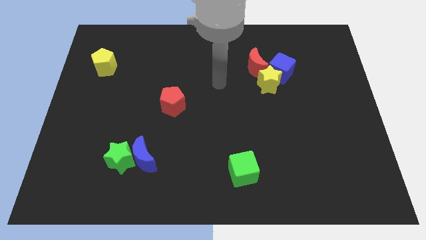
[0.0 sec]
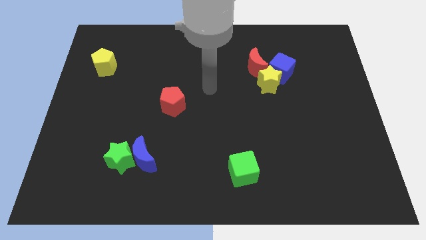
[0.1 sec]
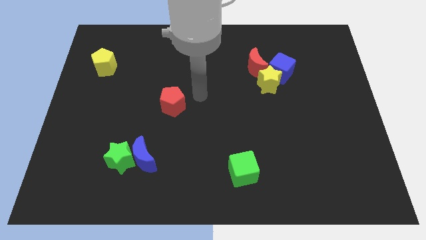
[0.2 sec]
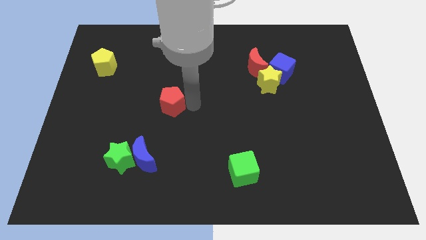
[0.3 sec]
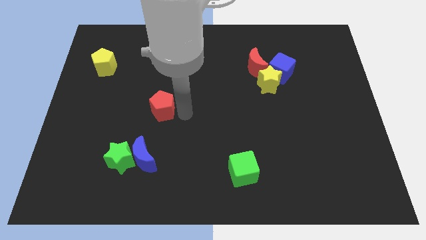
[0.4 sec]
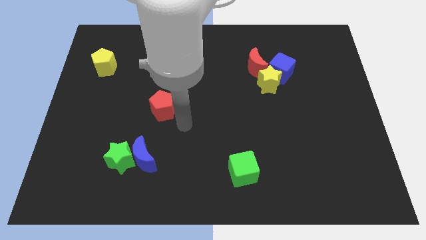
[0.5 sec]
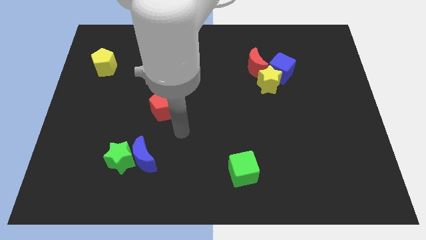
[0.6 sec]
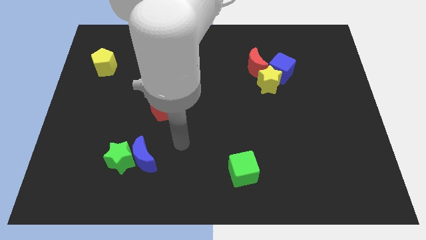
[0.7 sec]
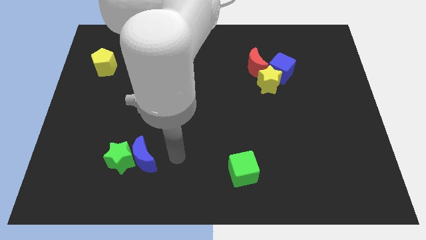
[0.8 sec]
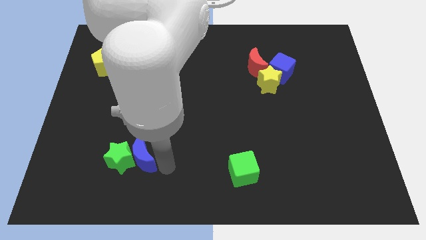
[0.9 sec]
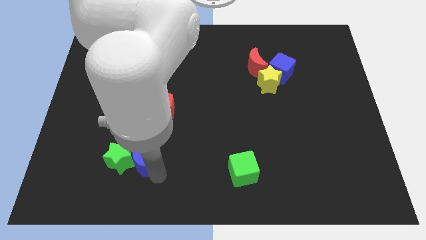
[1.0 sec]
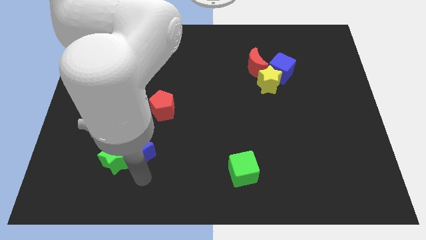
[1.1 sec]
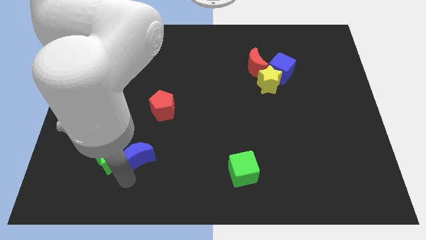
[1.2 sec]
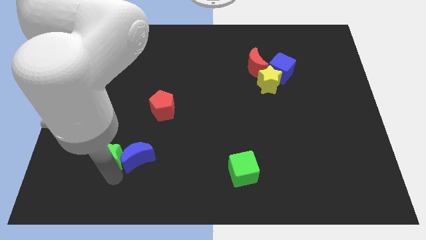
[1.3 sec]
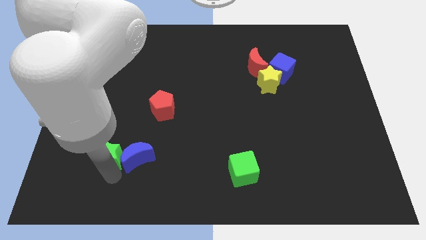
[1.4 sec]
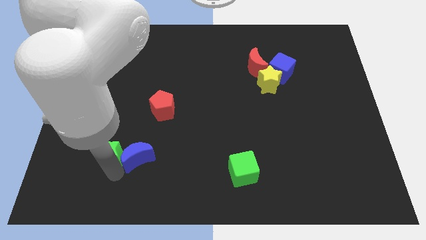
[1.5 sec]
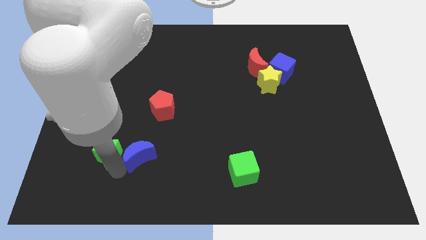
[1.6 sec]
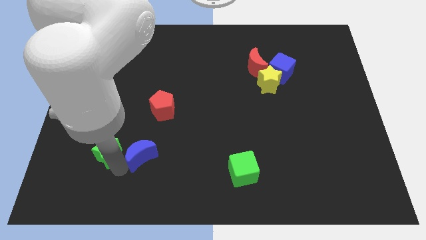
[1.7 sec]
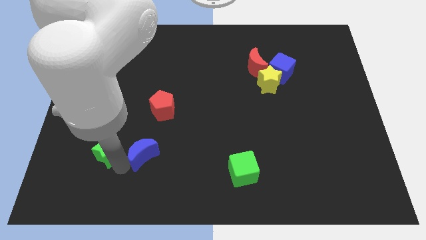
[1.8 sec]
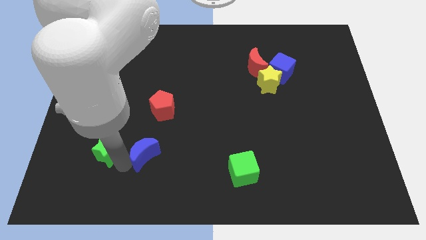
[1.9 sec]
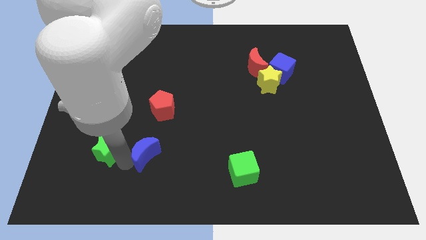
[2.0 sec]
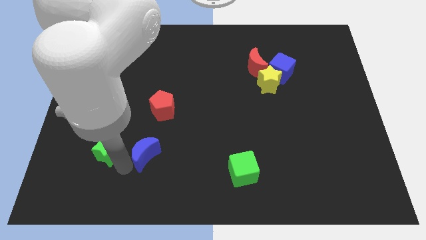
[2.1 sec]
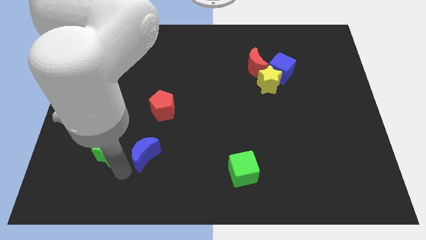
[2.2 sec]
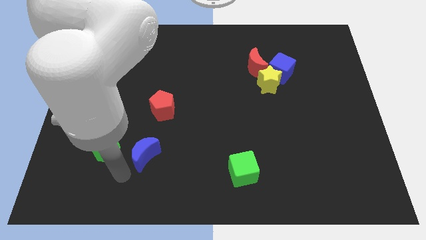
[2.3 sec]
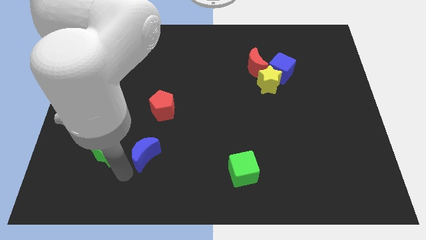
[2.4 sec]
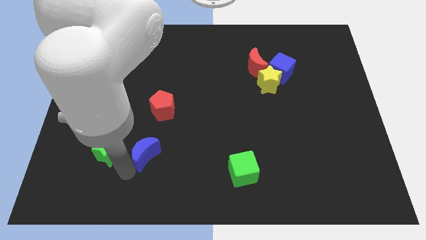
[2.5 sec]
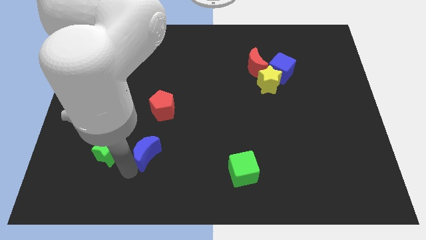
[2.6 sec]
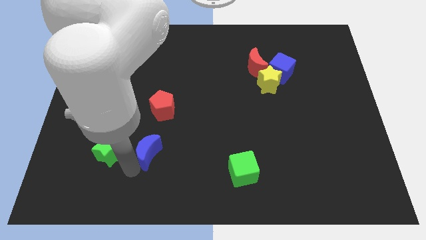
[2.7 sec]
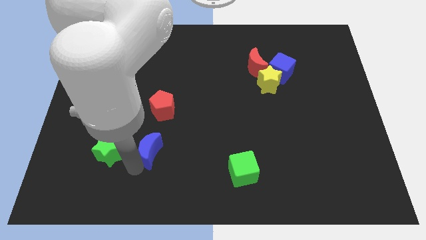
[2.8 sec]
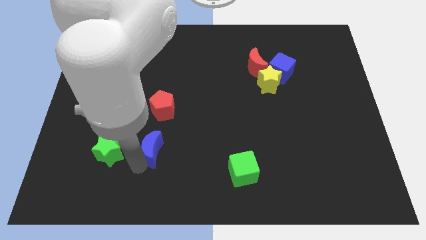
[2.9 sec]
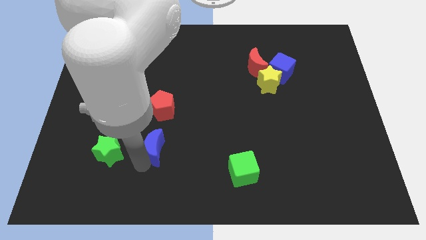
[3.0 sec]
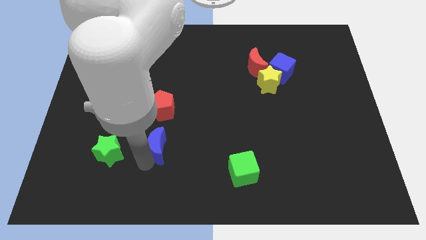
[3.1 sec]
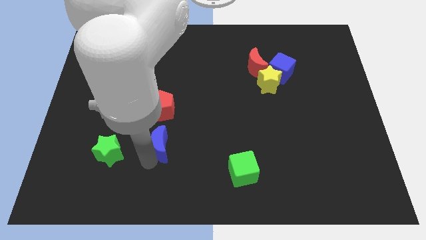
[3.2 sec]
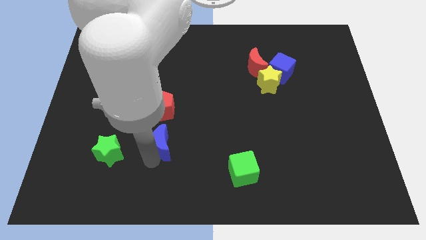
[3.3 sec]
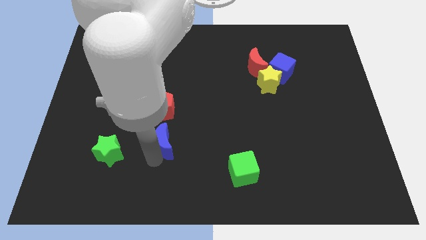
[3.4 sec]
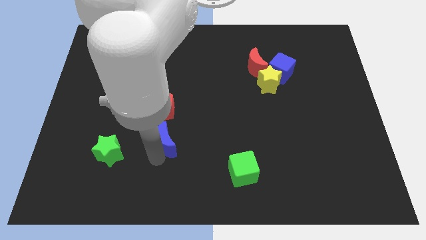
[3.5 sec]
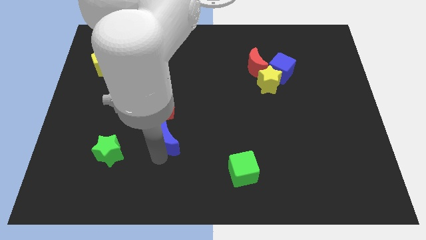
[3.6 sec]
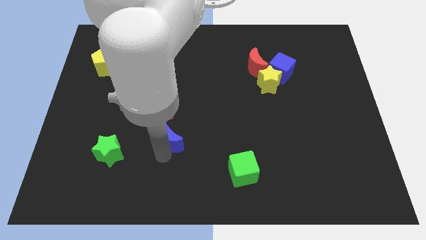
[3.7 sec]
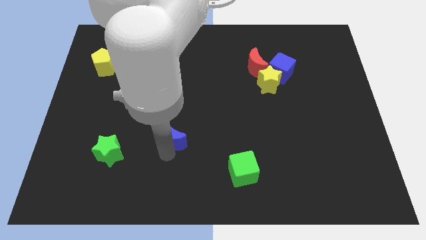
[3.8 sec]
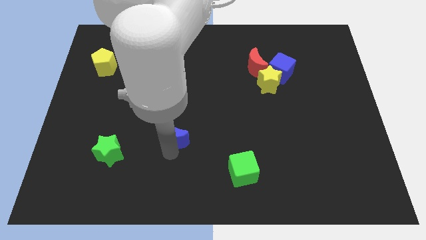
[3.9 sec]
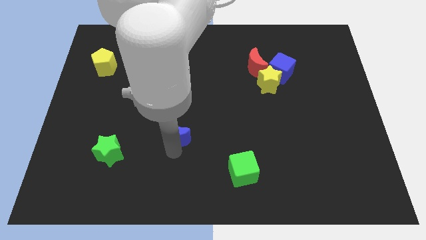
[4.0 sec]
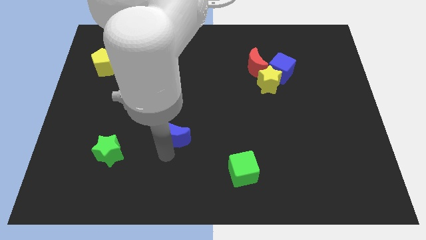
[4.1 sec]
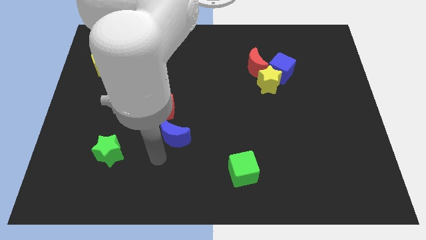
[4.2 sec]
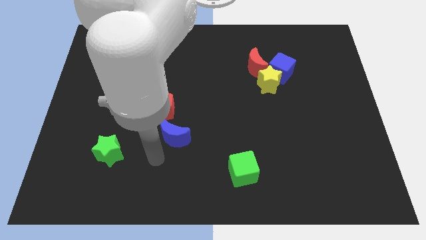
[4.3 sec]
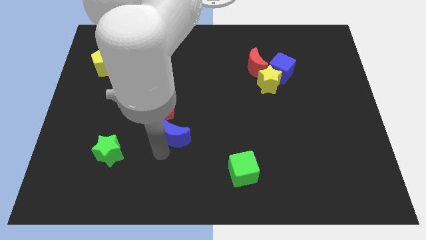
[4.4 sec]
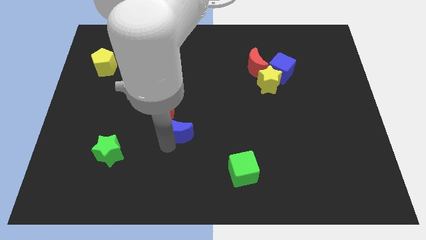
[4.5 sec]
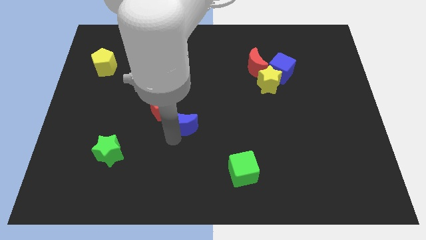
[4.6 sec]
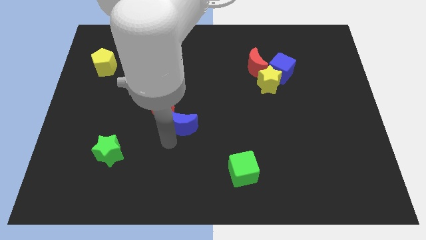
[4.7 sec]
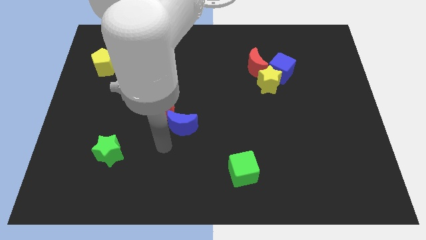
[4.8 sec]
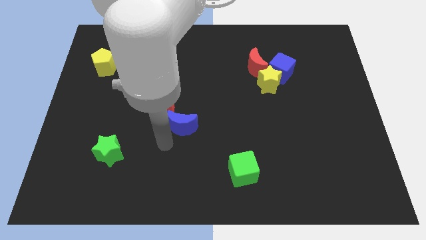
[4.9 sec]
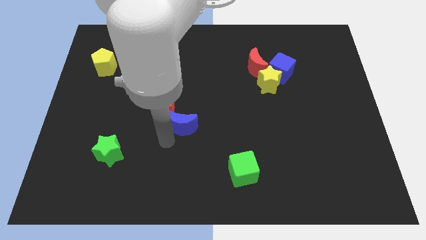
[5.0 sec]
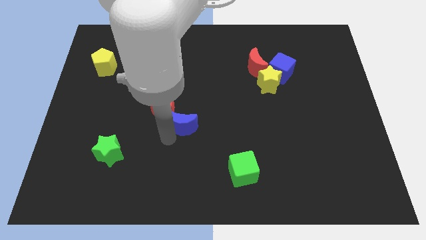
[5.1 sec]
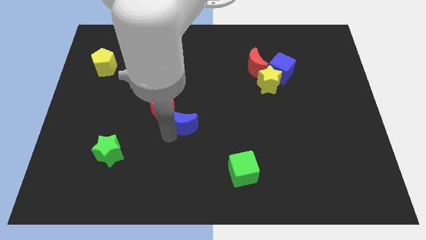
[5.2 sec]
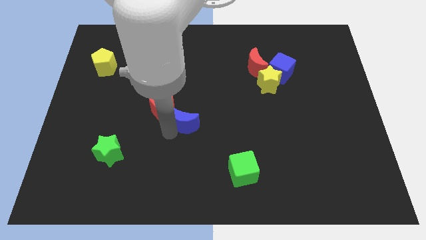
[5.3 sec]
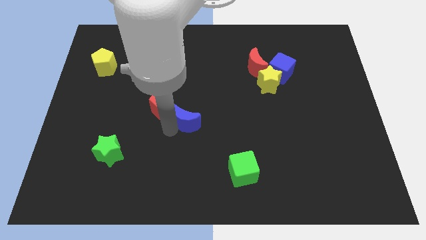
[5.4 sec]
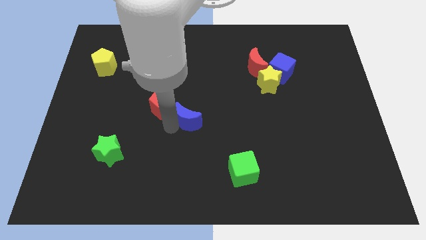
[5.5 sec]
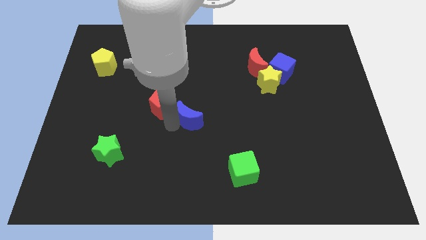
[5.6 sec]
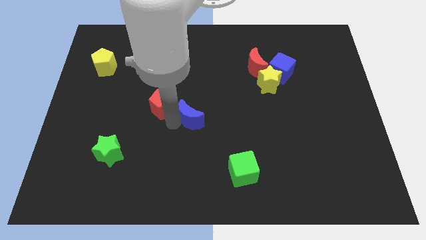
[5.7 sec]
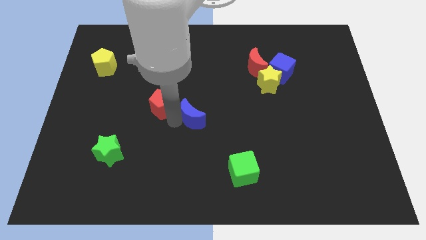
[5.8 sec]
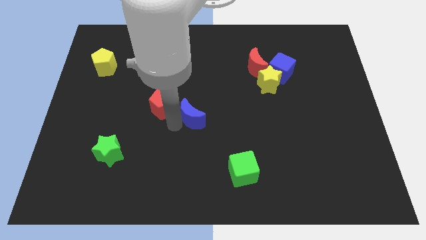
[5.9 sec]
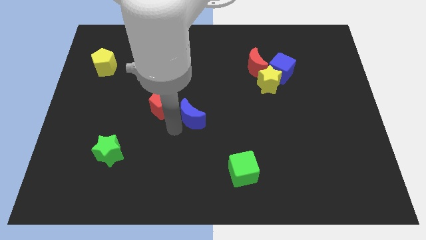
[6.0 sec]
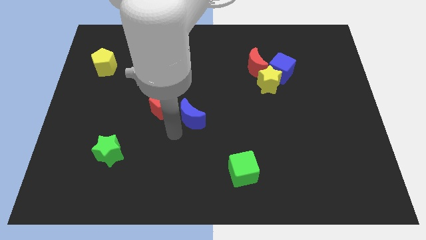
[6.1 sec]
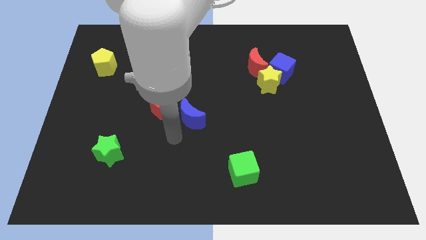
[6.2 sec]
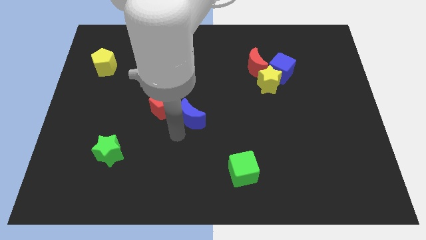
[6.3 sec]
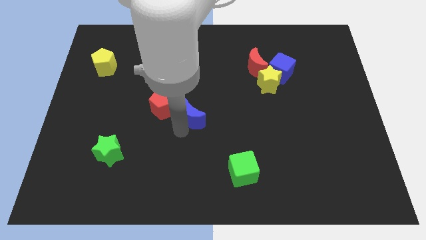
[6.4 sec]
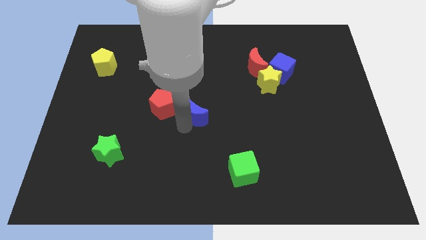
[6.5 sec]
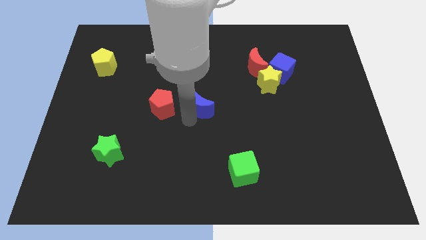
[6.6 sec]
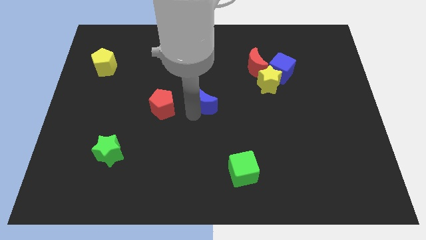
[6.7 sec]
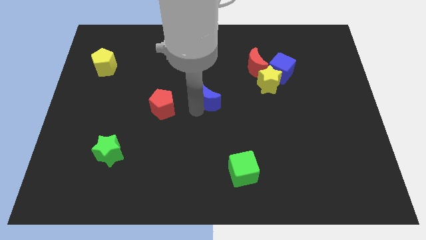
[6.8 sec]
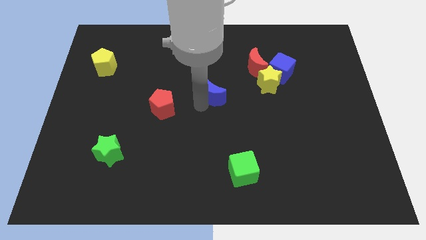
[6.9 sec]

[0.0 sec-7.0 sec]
move the blue moon to the left side of the yellow star
